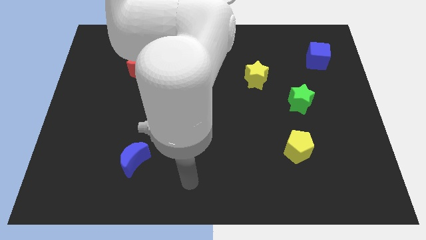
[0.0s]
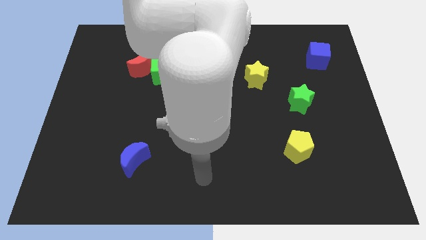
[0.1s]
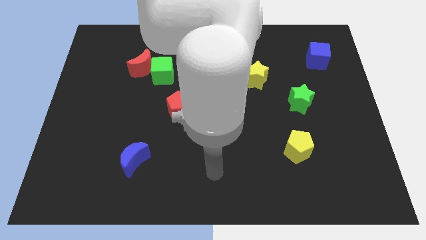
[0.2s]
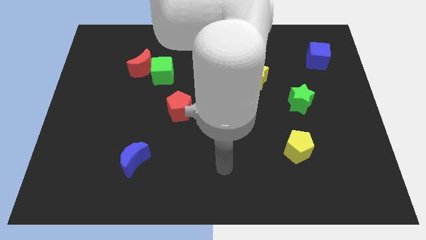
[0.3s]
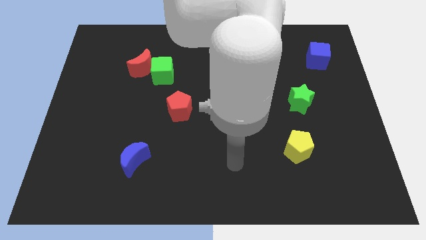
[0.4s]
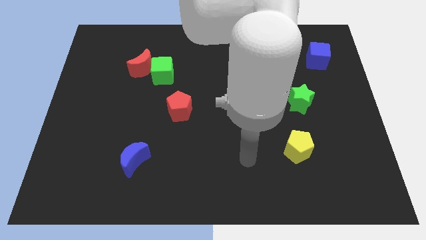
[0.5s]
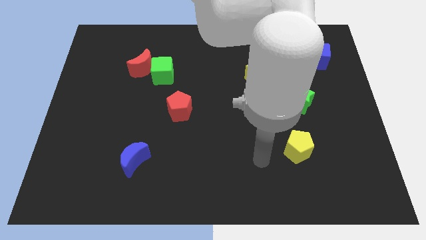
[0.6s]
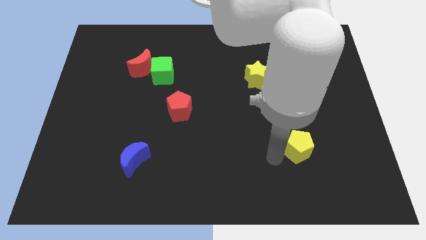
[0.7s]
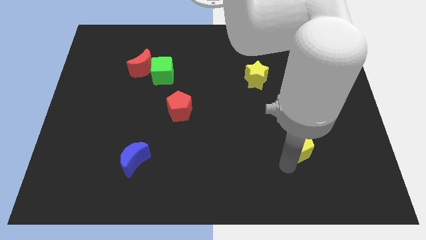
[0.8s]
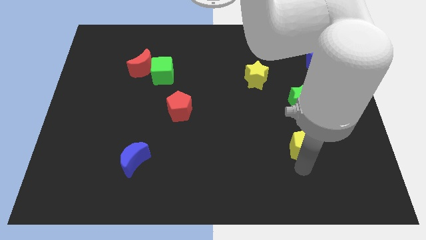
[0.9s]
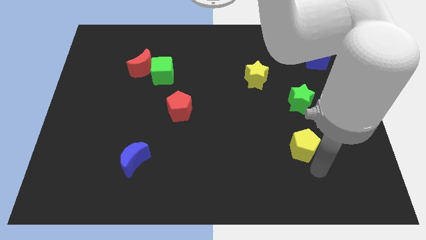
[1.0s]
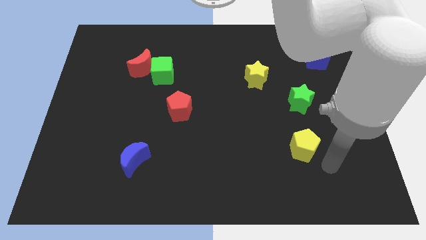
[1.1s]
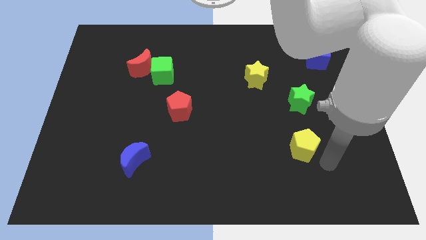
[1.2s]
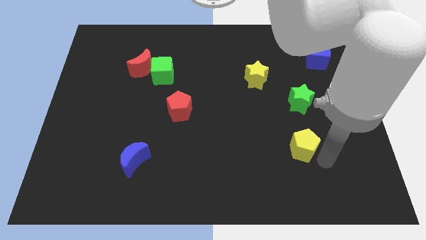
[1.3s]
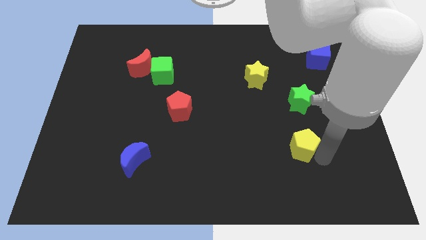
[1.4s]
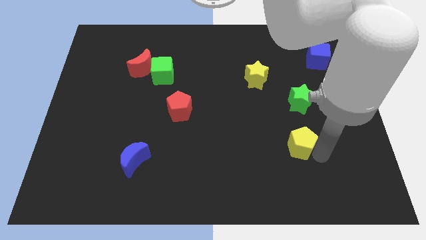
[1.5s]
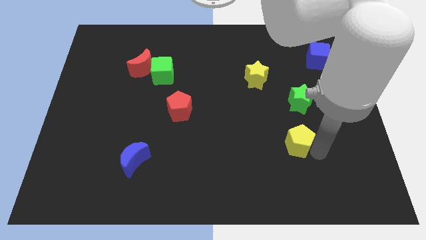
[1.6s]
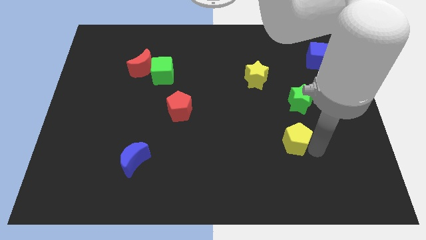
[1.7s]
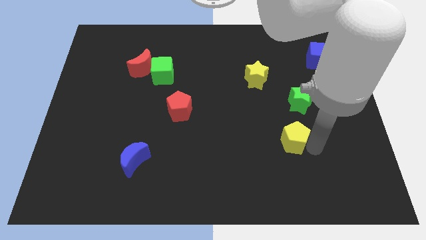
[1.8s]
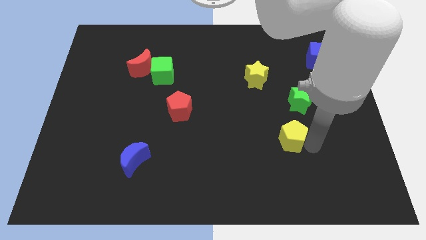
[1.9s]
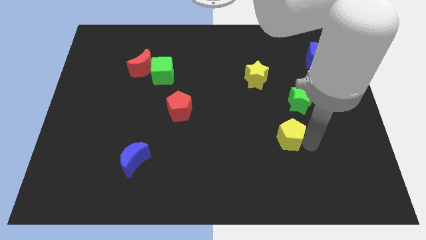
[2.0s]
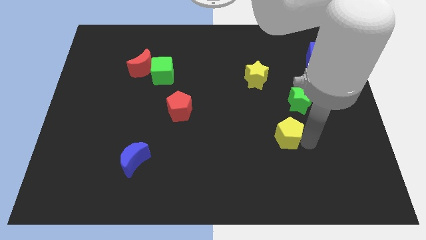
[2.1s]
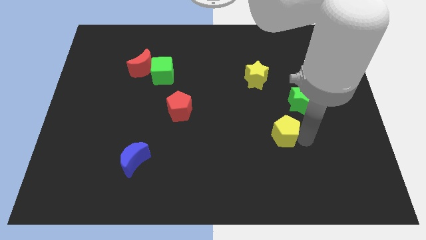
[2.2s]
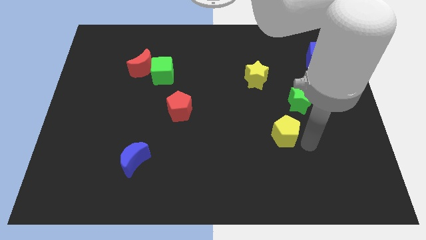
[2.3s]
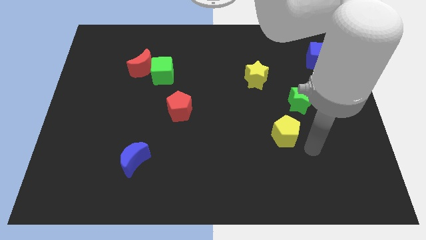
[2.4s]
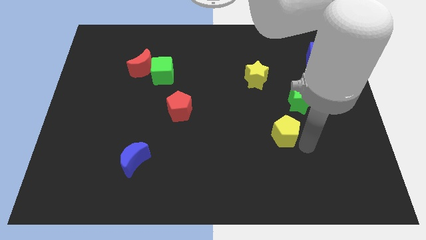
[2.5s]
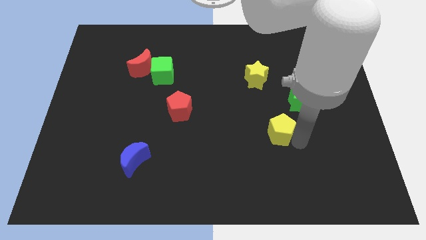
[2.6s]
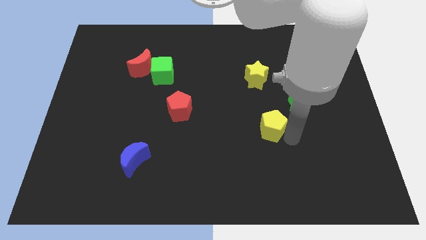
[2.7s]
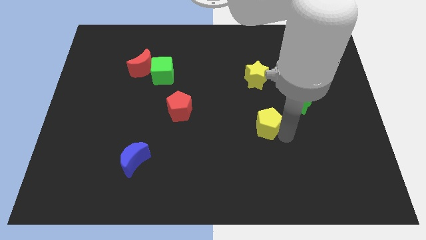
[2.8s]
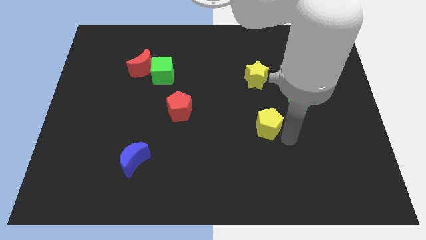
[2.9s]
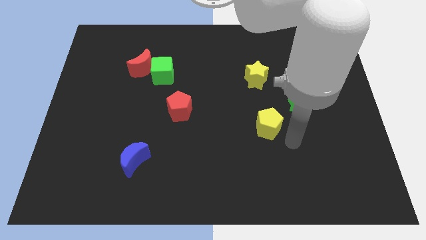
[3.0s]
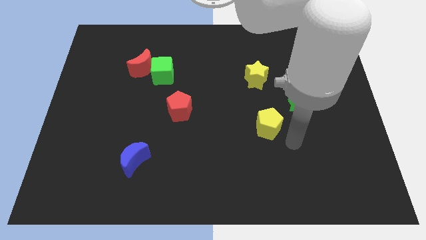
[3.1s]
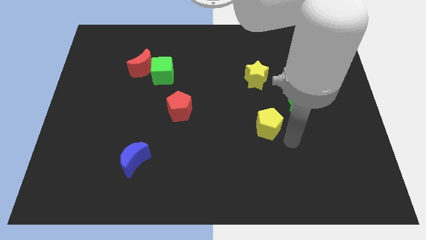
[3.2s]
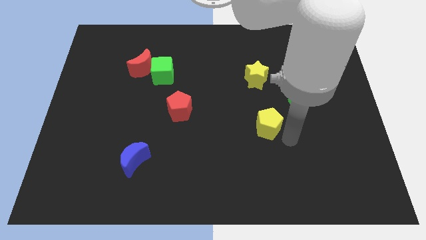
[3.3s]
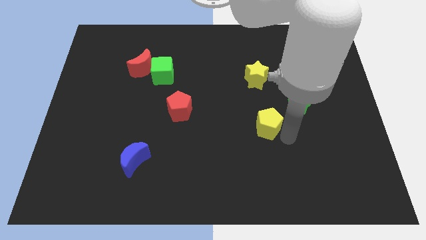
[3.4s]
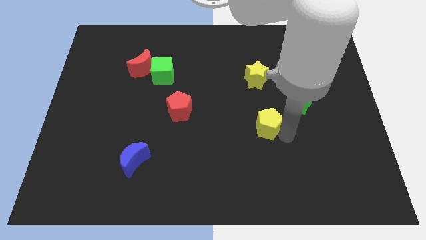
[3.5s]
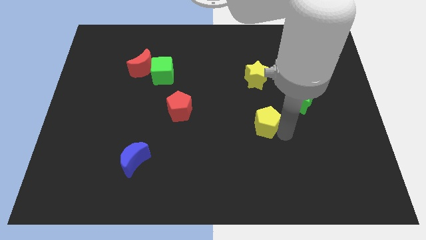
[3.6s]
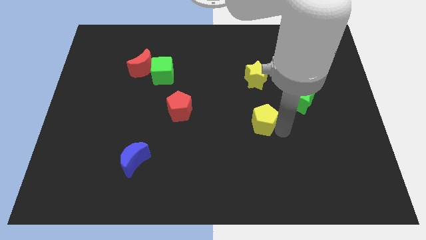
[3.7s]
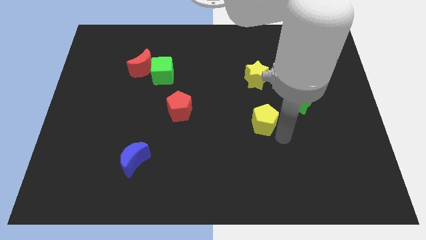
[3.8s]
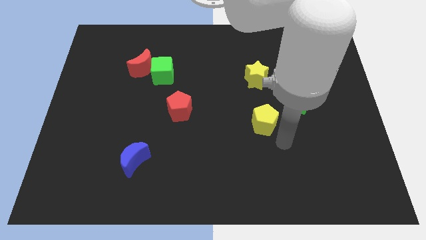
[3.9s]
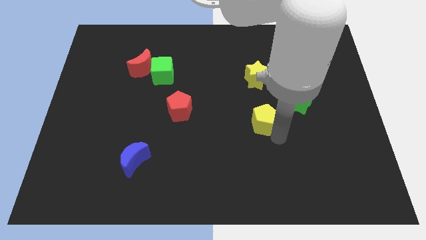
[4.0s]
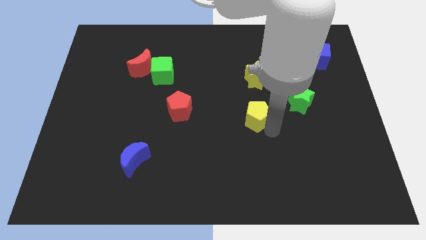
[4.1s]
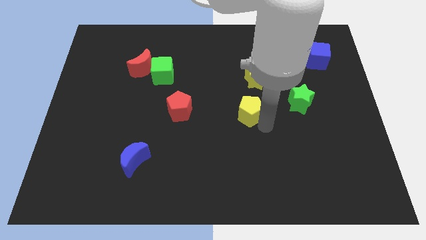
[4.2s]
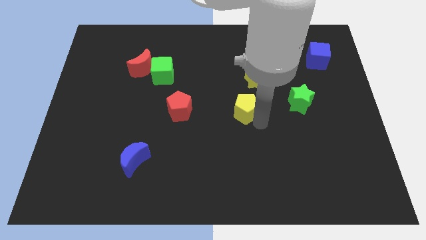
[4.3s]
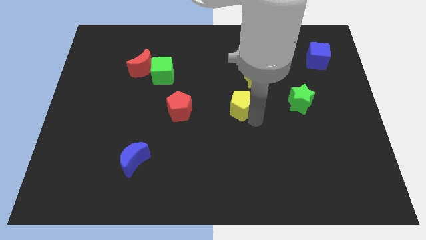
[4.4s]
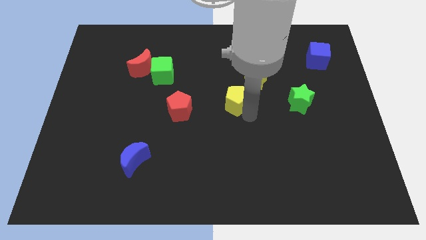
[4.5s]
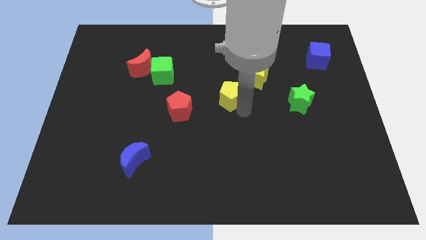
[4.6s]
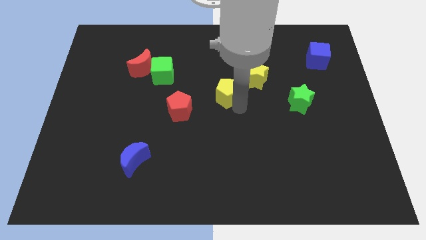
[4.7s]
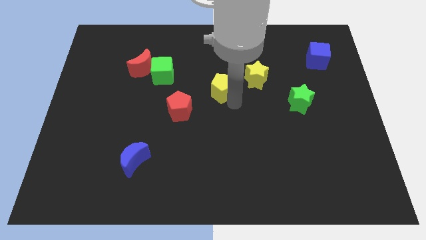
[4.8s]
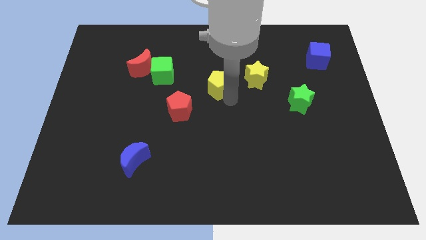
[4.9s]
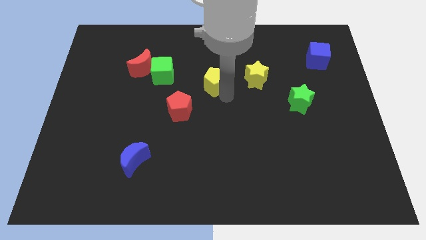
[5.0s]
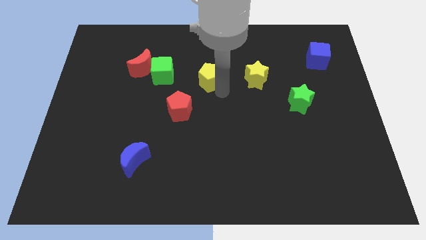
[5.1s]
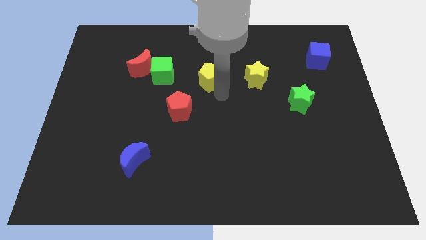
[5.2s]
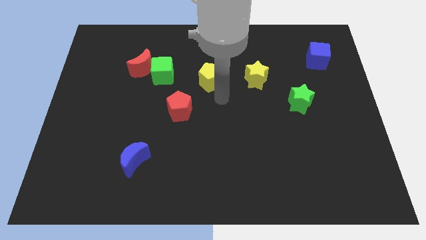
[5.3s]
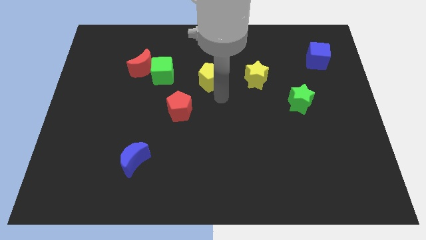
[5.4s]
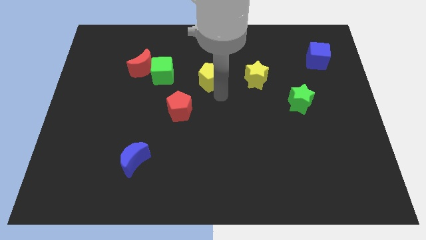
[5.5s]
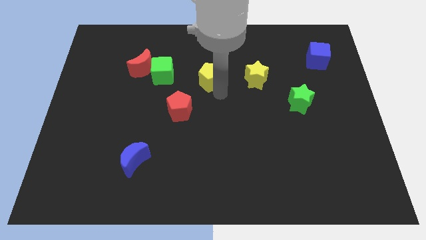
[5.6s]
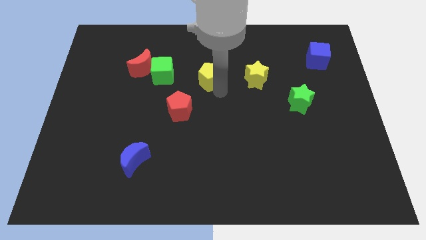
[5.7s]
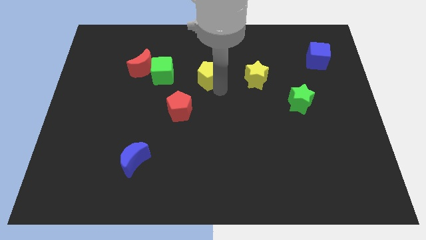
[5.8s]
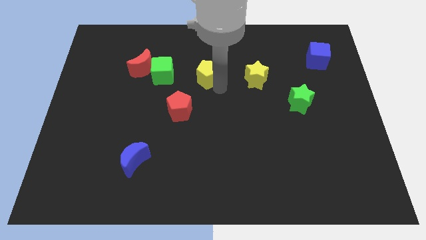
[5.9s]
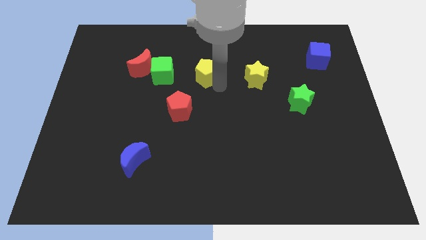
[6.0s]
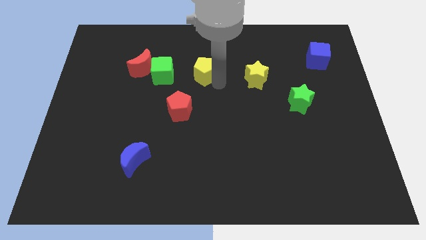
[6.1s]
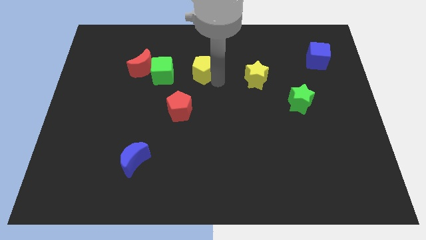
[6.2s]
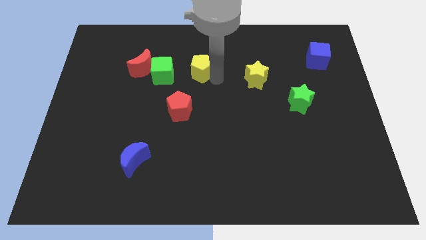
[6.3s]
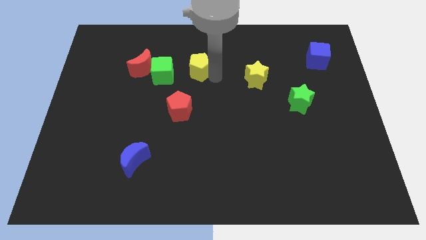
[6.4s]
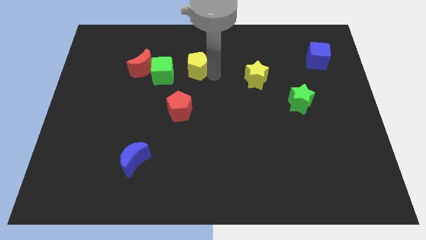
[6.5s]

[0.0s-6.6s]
put the yellow pentagon to the top right of the green cube
